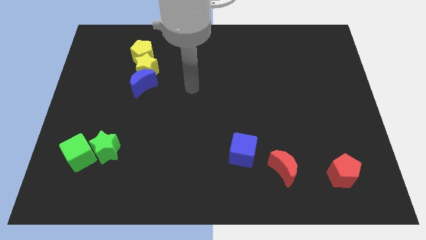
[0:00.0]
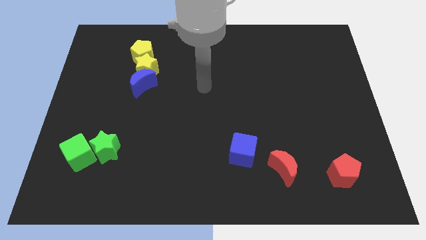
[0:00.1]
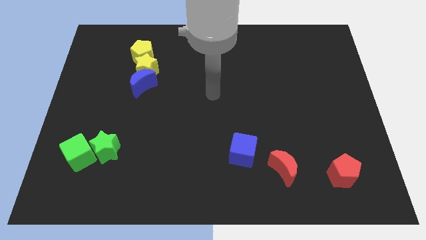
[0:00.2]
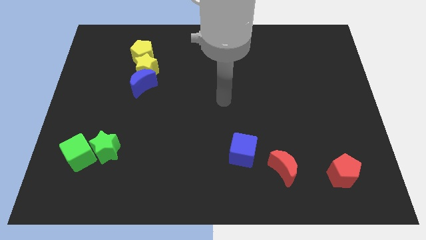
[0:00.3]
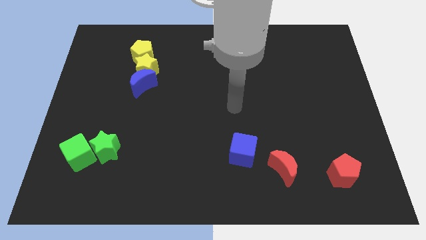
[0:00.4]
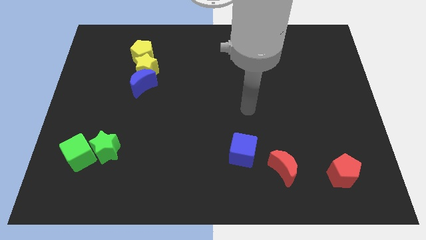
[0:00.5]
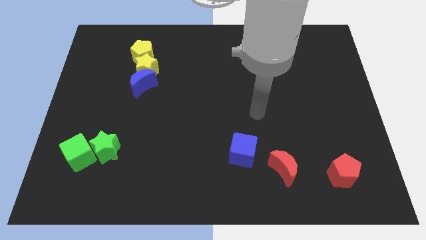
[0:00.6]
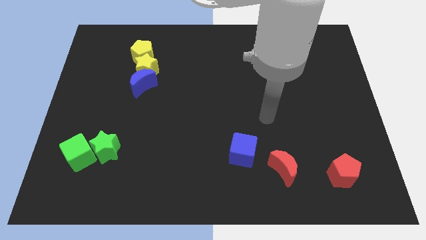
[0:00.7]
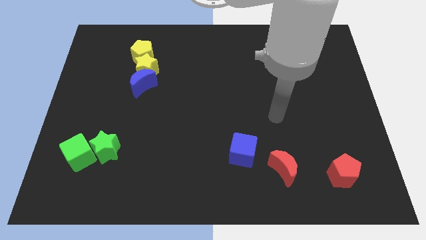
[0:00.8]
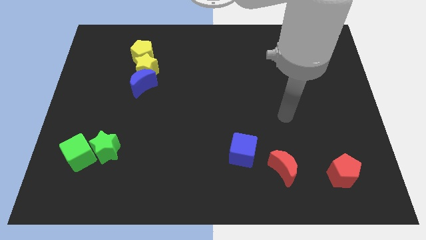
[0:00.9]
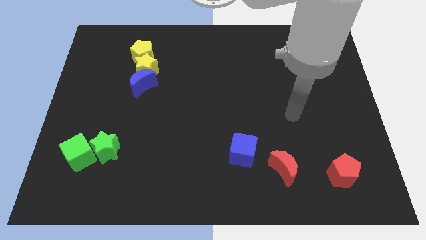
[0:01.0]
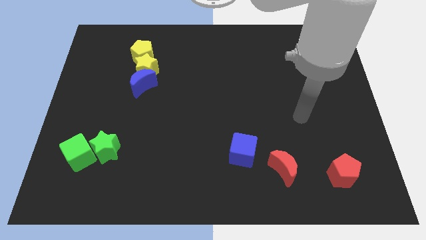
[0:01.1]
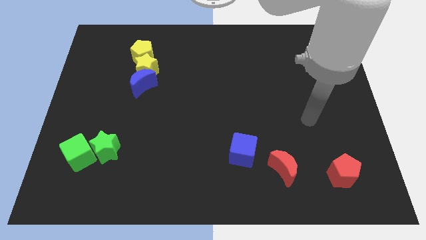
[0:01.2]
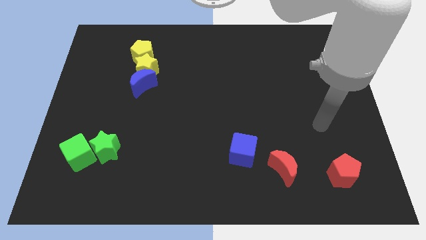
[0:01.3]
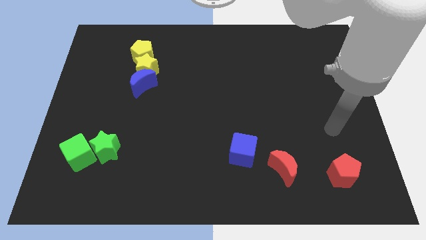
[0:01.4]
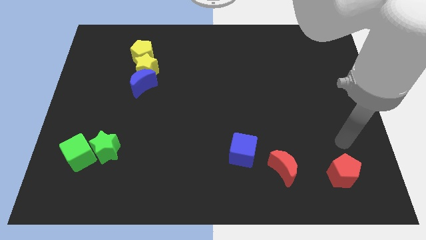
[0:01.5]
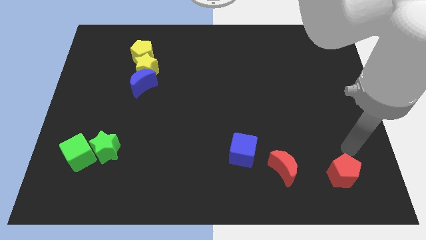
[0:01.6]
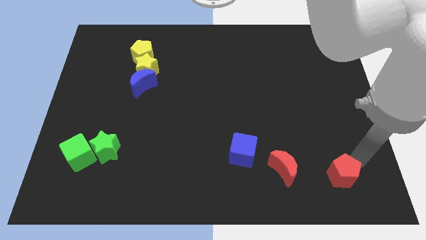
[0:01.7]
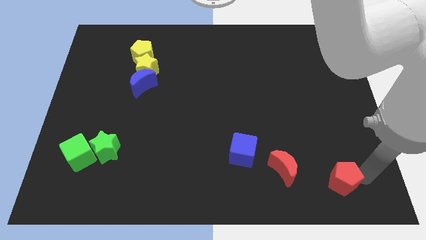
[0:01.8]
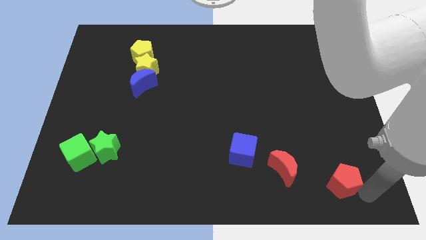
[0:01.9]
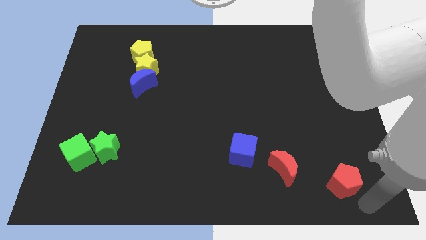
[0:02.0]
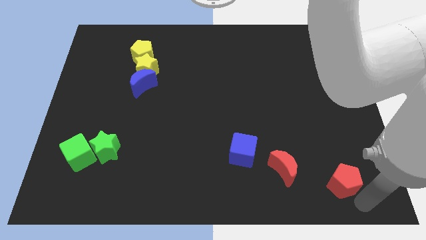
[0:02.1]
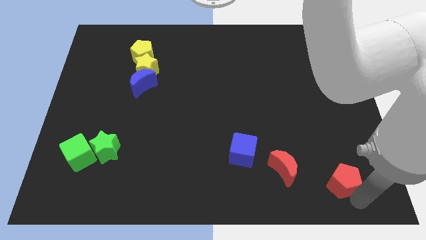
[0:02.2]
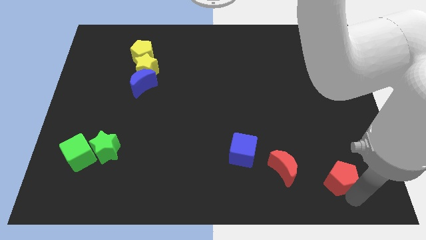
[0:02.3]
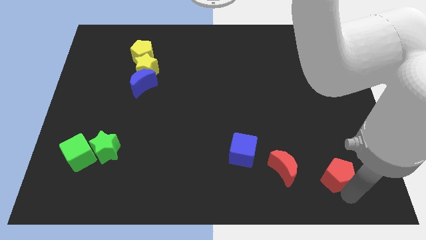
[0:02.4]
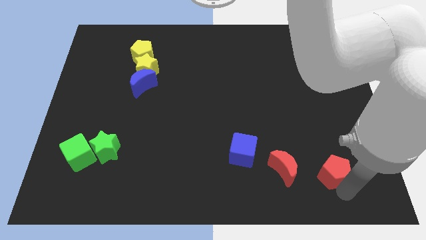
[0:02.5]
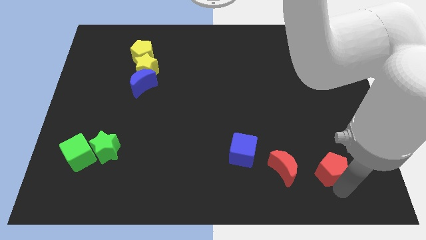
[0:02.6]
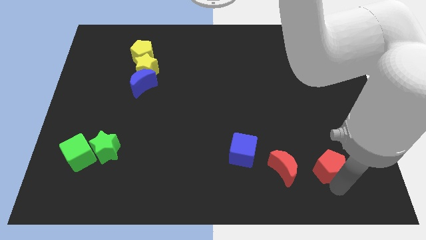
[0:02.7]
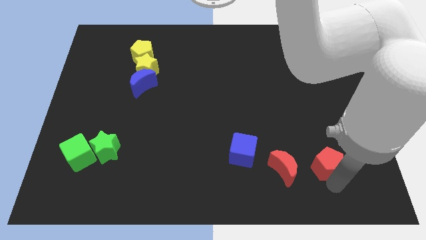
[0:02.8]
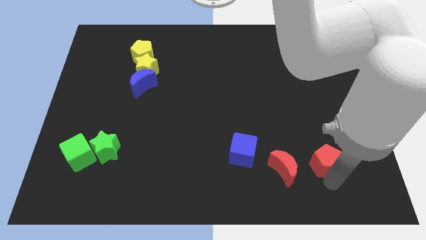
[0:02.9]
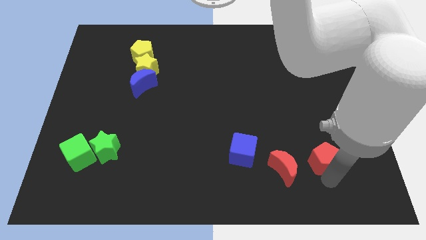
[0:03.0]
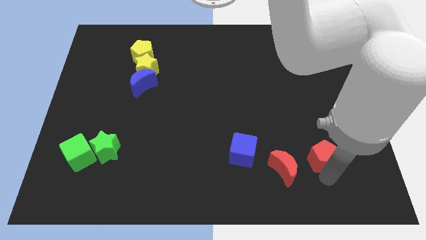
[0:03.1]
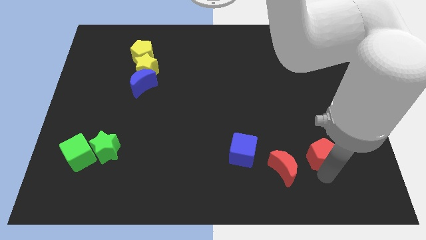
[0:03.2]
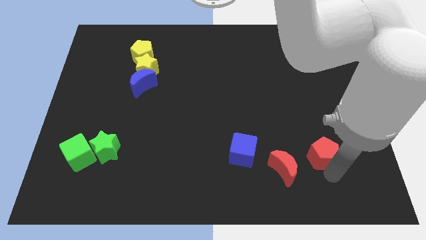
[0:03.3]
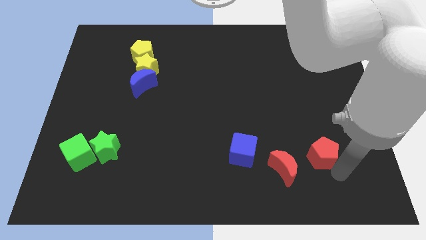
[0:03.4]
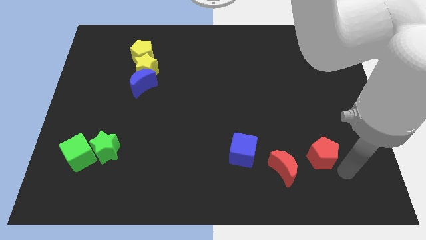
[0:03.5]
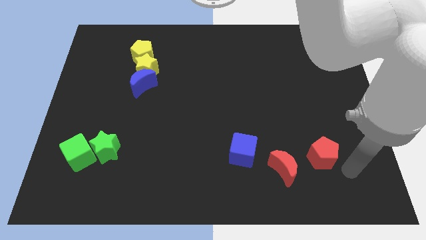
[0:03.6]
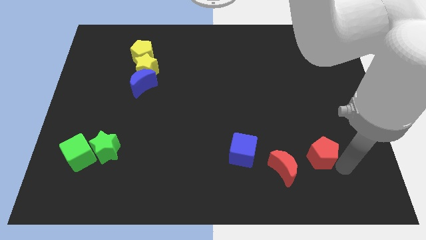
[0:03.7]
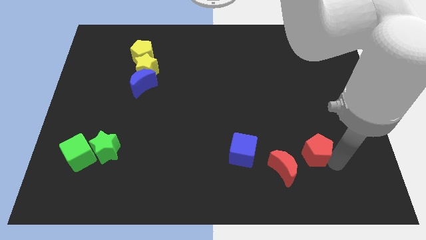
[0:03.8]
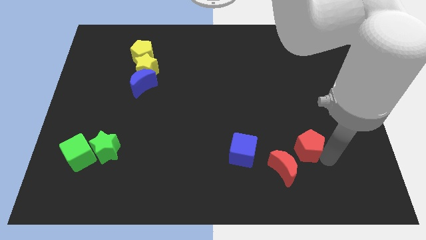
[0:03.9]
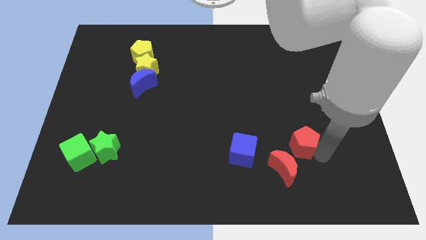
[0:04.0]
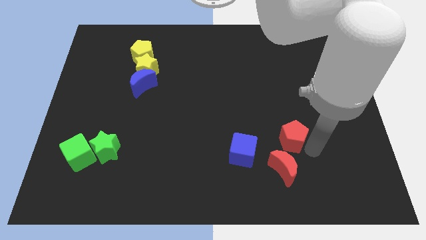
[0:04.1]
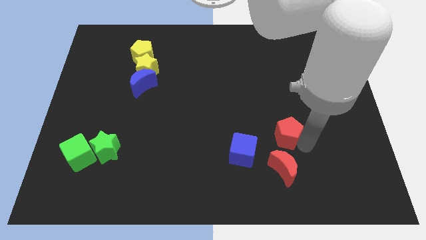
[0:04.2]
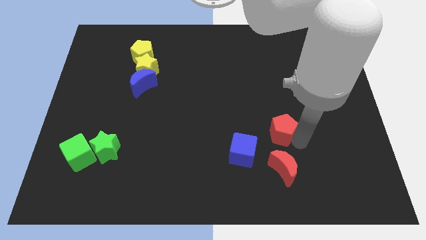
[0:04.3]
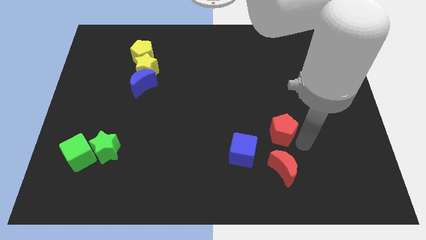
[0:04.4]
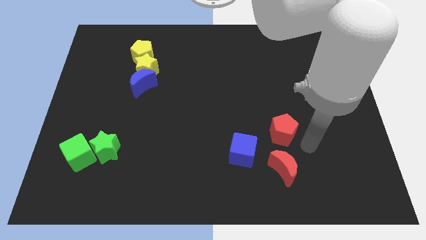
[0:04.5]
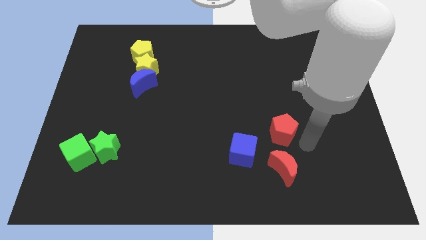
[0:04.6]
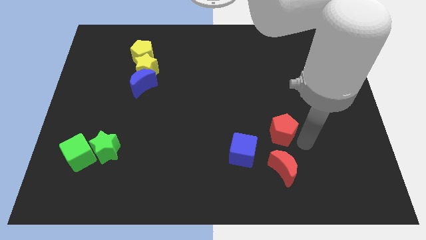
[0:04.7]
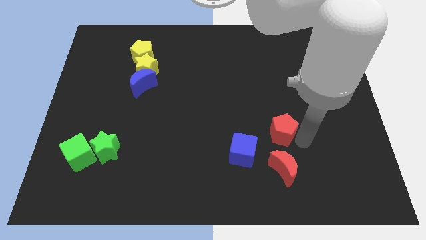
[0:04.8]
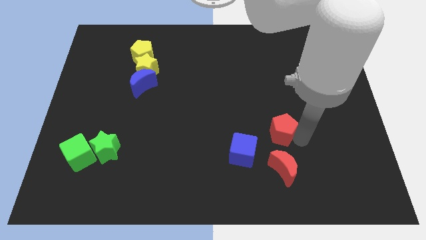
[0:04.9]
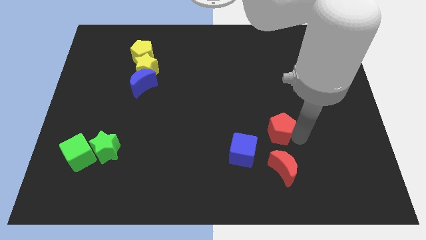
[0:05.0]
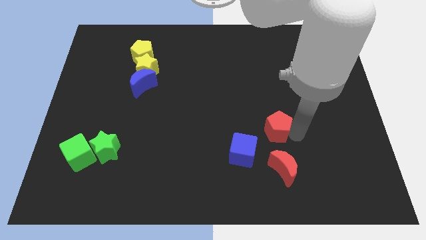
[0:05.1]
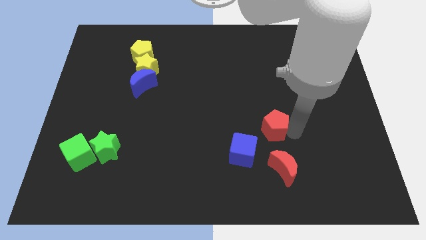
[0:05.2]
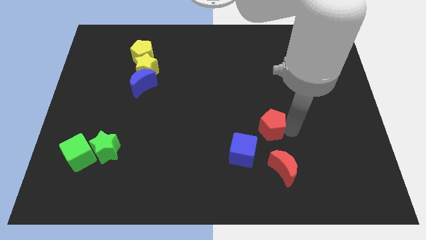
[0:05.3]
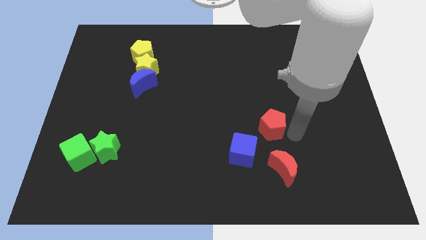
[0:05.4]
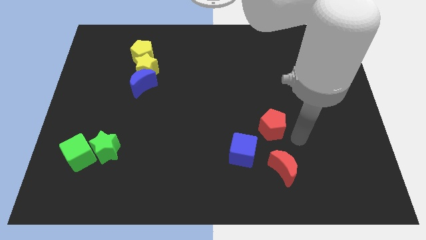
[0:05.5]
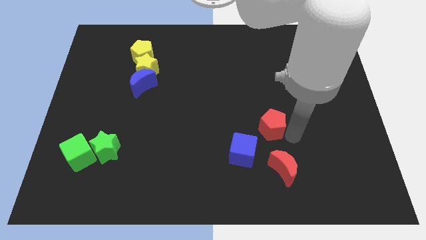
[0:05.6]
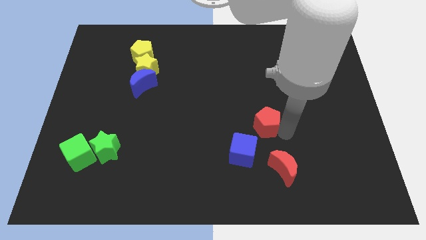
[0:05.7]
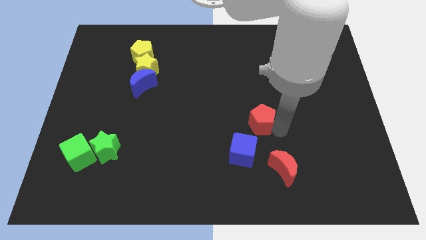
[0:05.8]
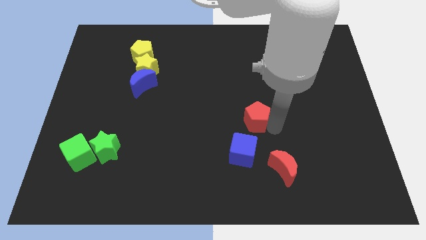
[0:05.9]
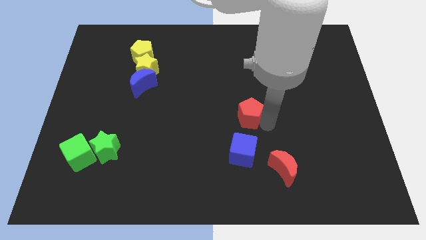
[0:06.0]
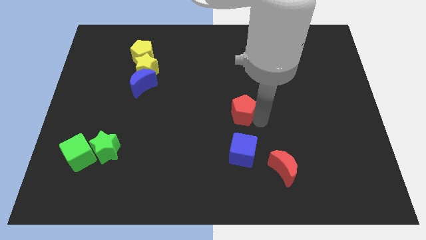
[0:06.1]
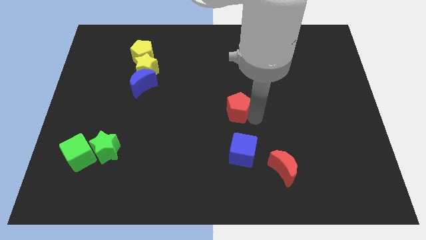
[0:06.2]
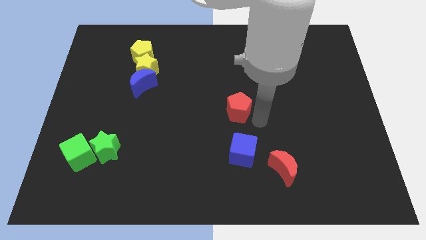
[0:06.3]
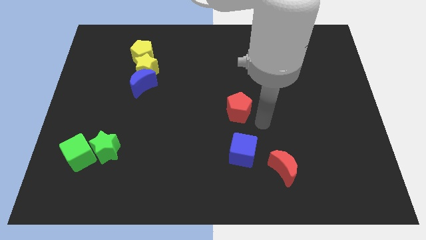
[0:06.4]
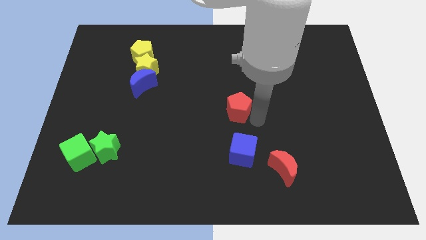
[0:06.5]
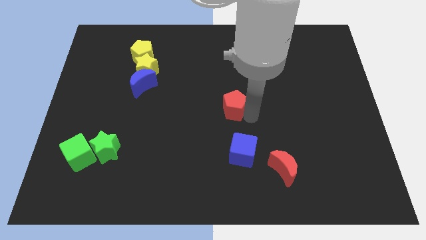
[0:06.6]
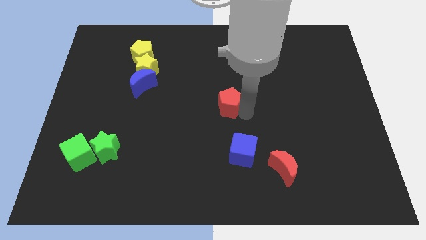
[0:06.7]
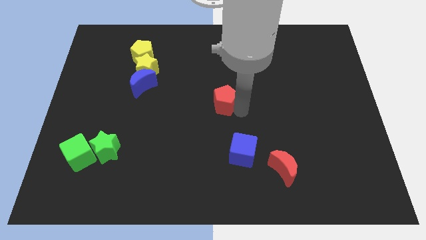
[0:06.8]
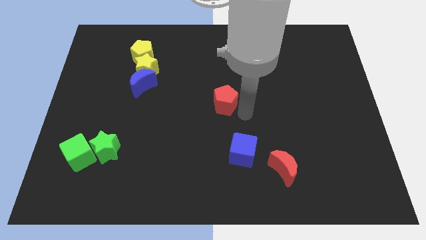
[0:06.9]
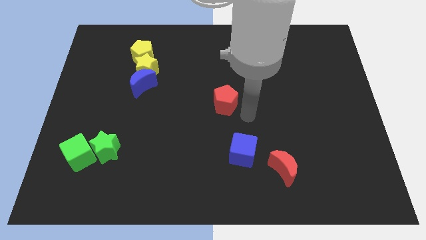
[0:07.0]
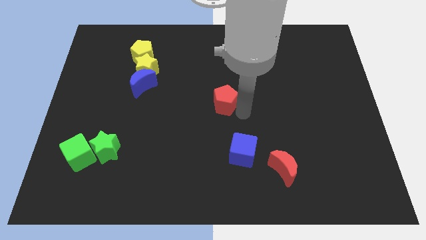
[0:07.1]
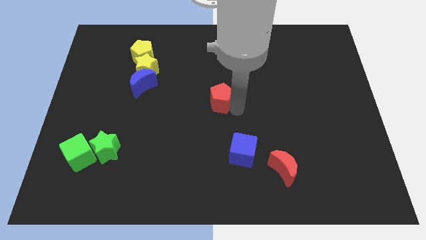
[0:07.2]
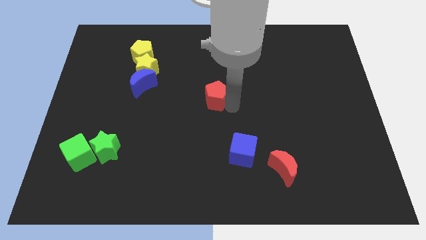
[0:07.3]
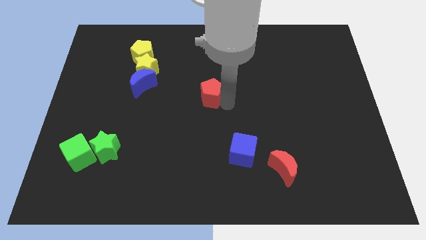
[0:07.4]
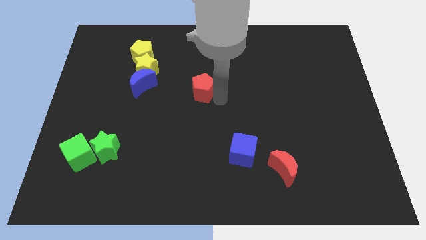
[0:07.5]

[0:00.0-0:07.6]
put the red pentagon right of the blue moon
